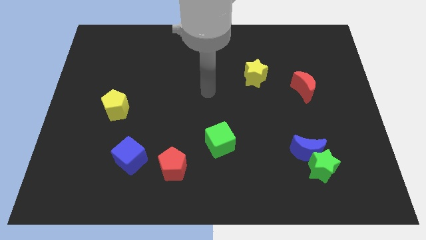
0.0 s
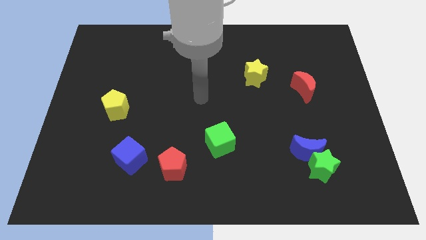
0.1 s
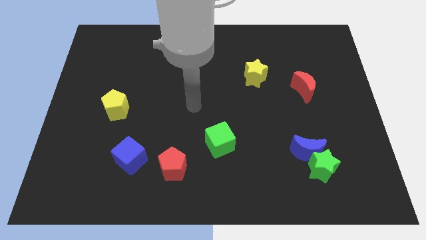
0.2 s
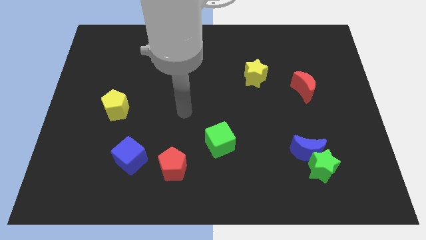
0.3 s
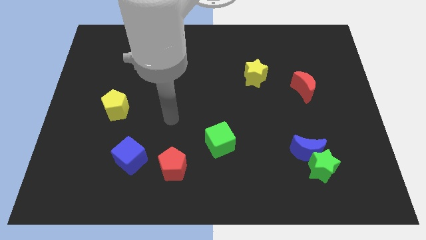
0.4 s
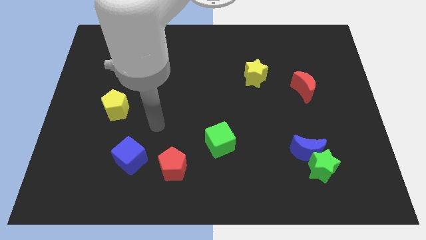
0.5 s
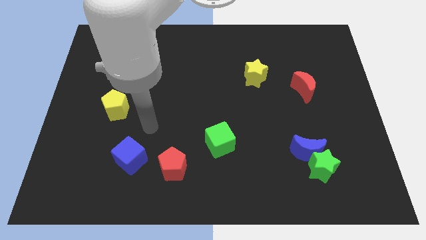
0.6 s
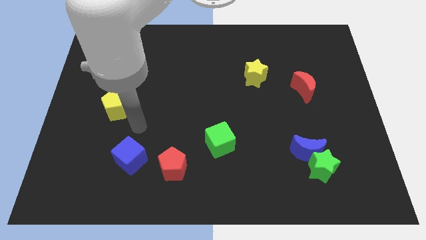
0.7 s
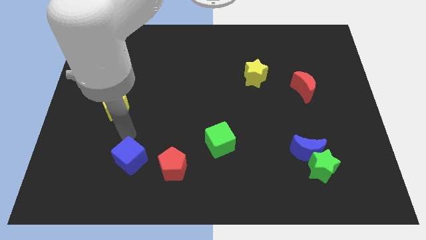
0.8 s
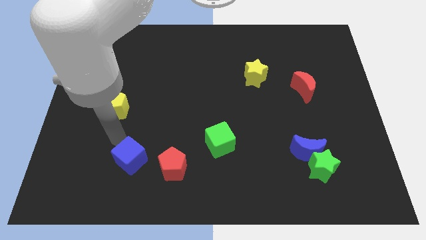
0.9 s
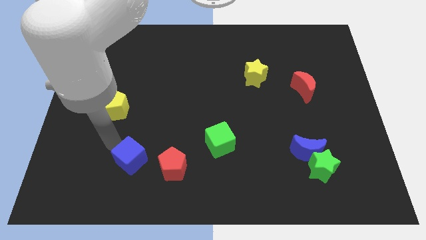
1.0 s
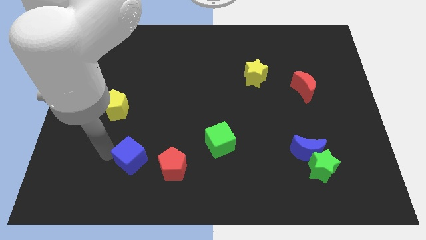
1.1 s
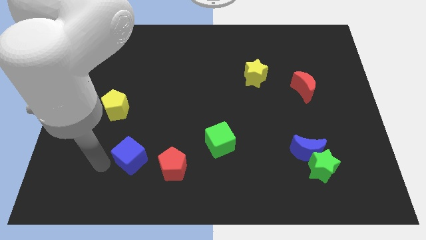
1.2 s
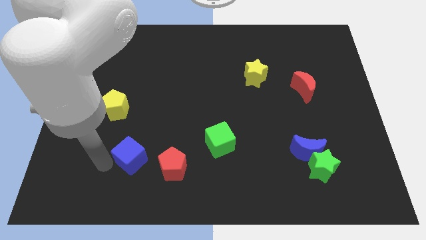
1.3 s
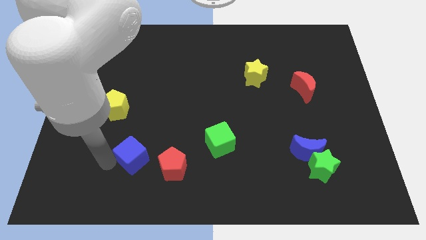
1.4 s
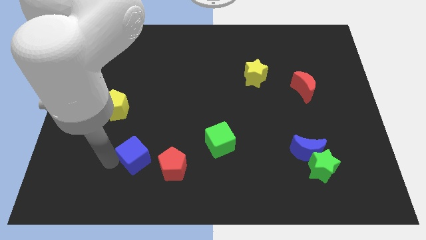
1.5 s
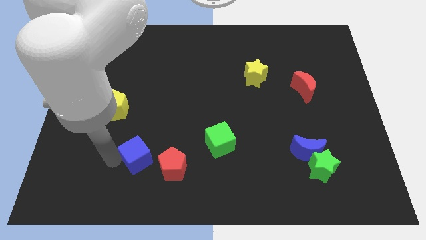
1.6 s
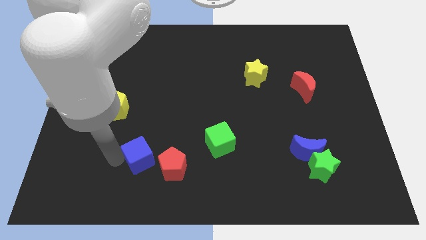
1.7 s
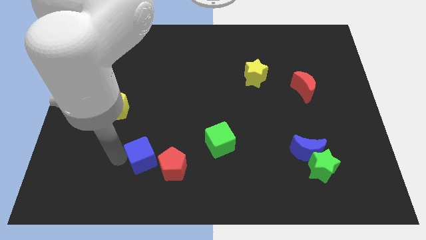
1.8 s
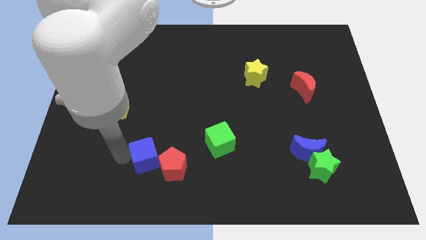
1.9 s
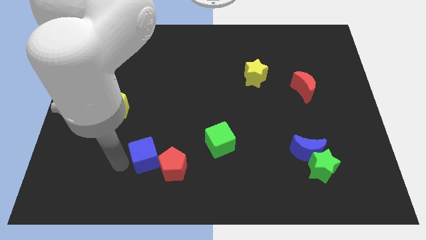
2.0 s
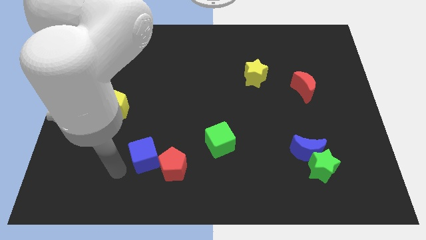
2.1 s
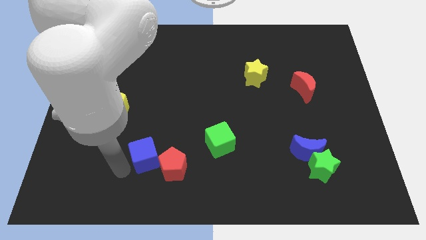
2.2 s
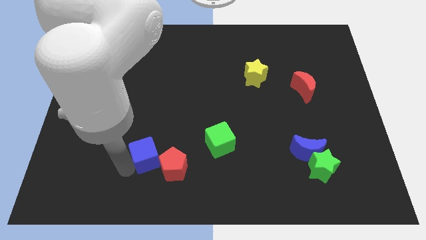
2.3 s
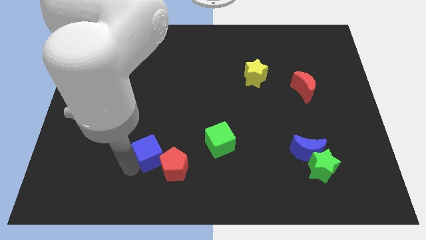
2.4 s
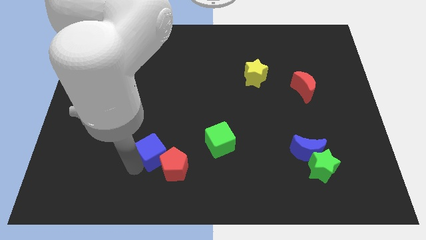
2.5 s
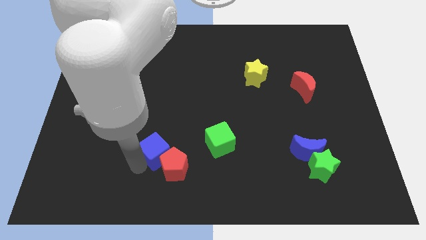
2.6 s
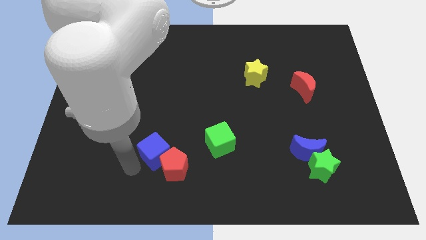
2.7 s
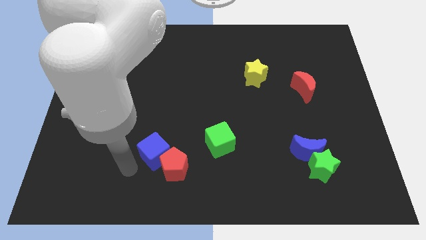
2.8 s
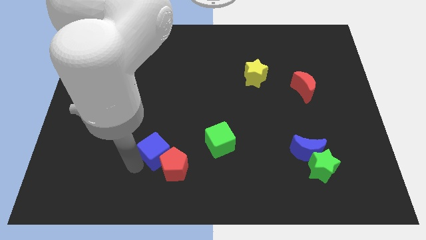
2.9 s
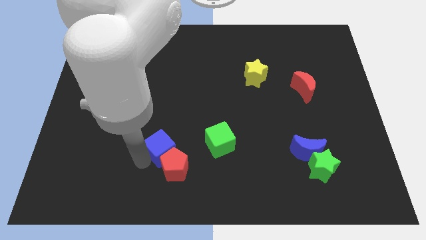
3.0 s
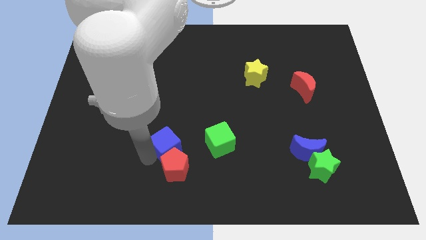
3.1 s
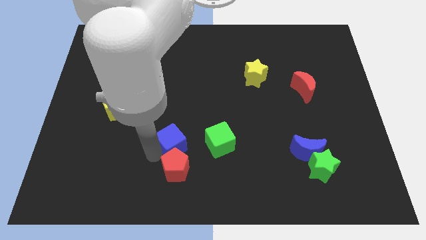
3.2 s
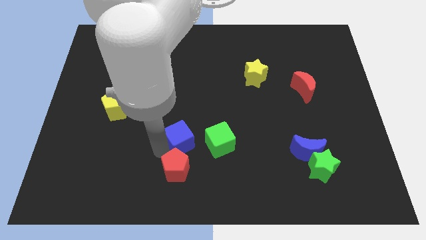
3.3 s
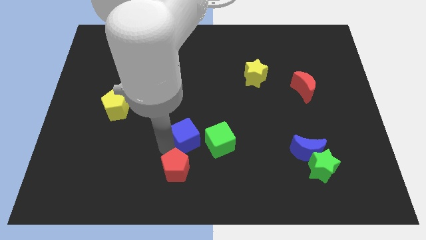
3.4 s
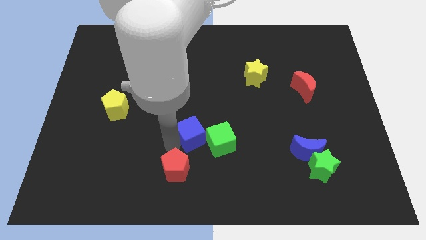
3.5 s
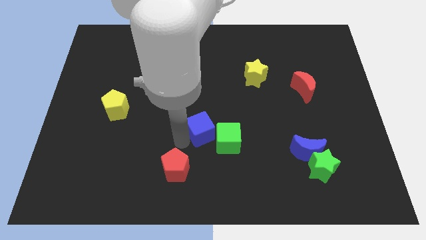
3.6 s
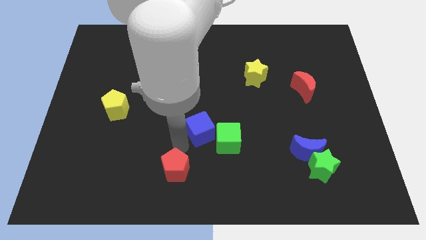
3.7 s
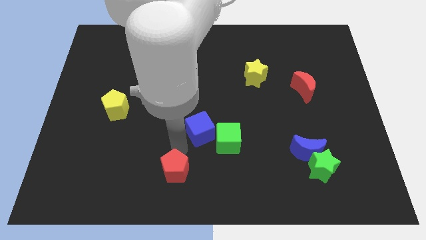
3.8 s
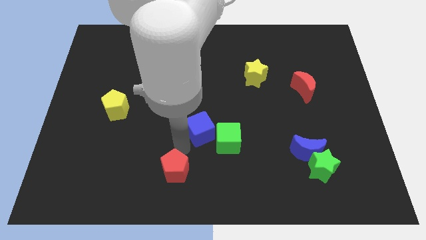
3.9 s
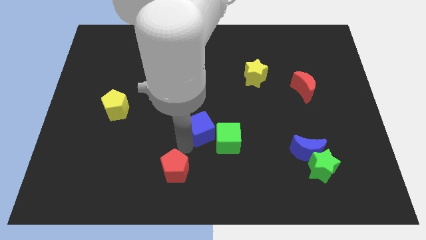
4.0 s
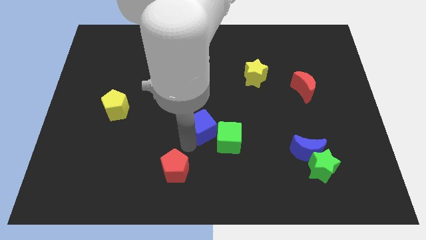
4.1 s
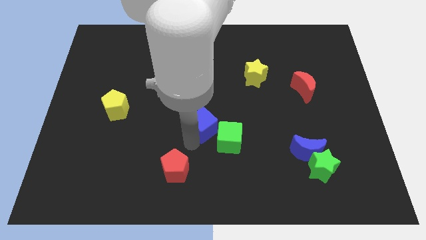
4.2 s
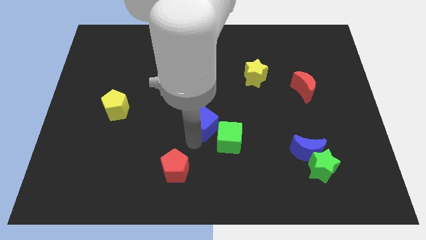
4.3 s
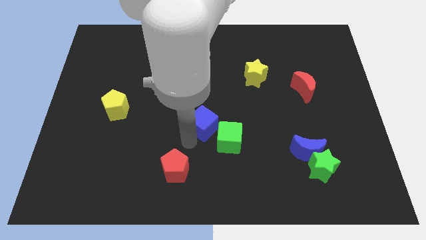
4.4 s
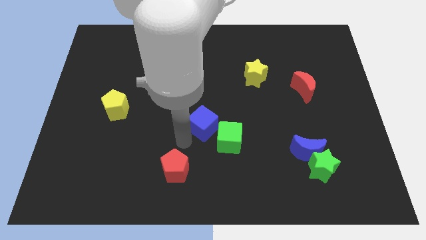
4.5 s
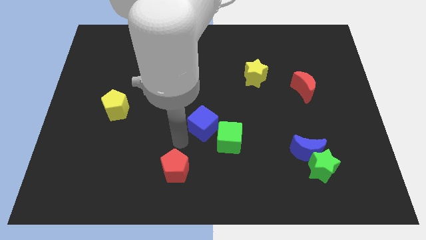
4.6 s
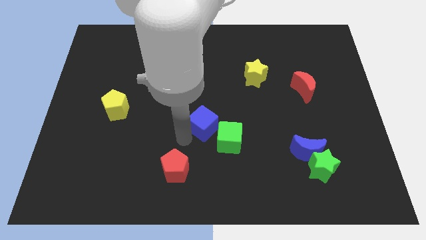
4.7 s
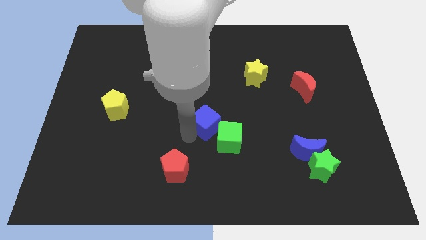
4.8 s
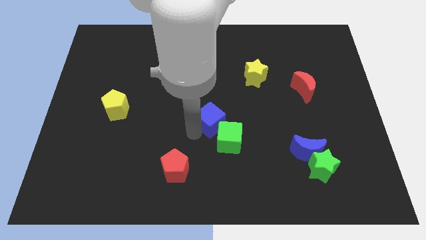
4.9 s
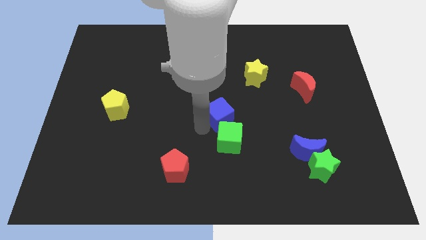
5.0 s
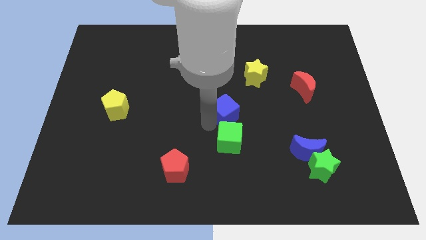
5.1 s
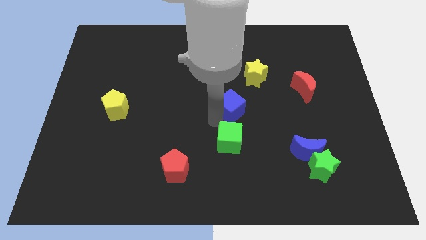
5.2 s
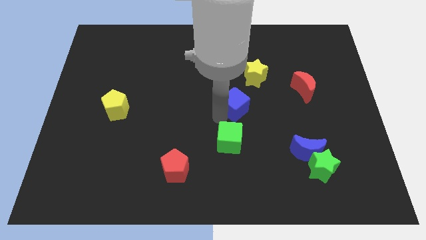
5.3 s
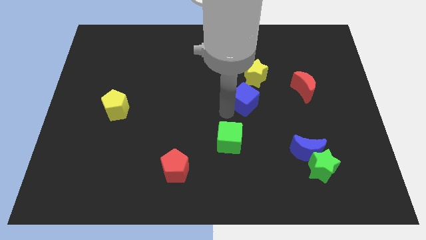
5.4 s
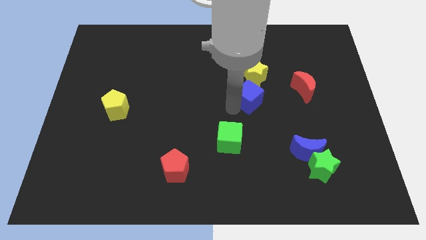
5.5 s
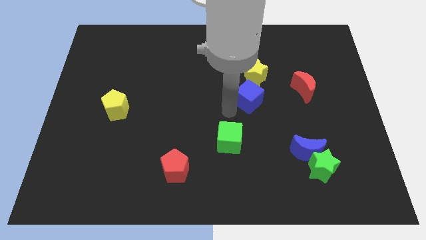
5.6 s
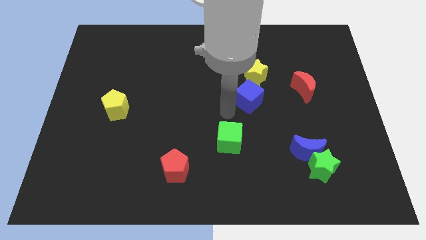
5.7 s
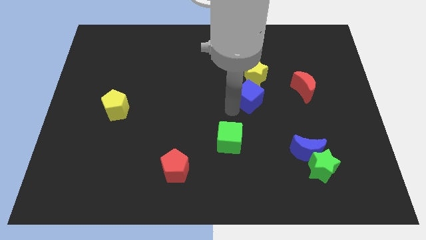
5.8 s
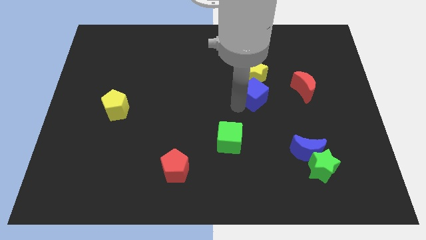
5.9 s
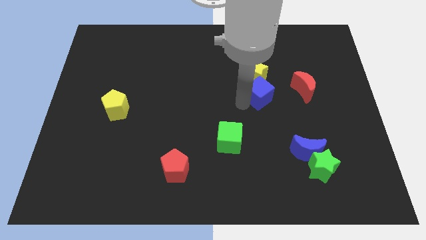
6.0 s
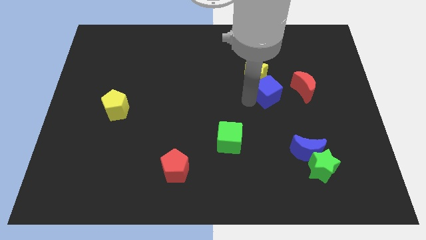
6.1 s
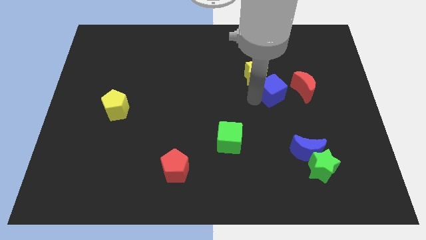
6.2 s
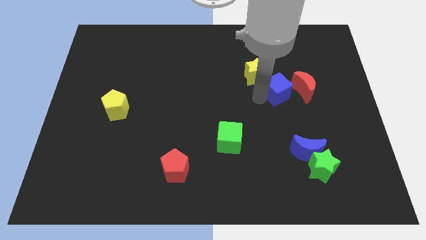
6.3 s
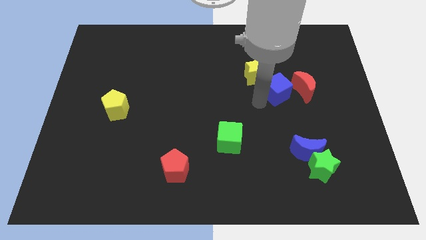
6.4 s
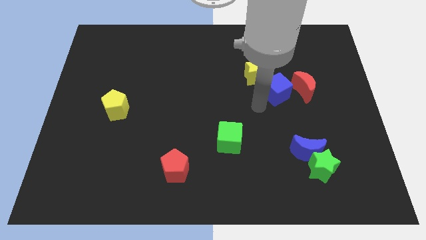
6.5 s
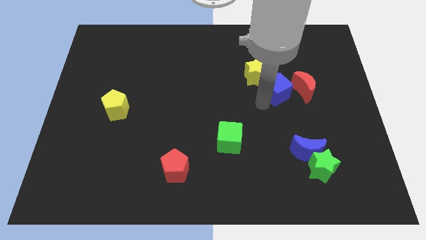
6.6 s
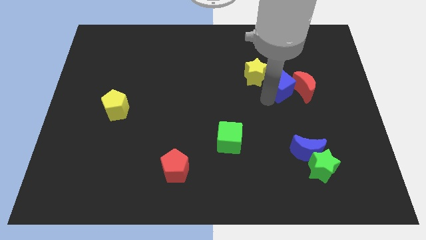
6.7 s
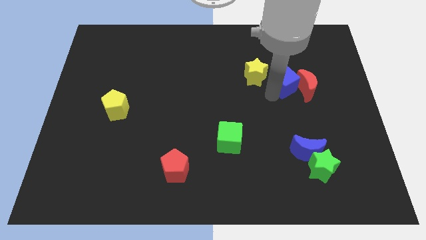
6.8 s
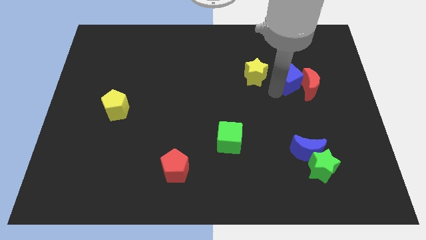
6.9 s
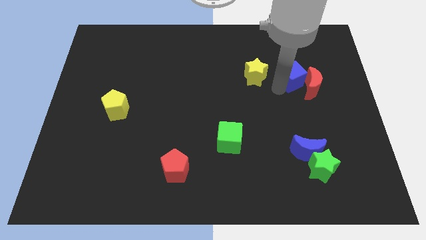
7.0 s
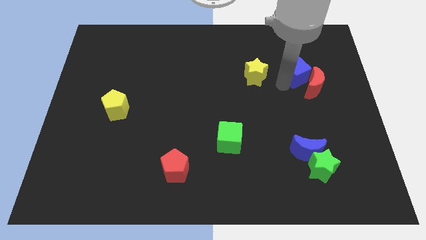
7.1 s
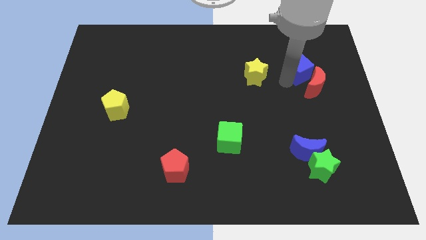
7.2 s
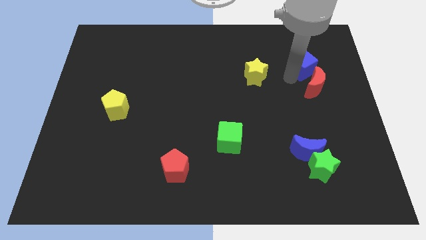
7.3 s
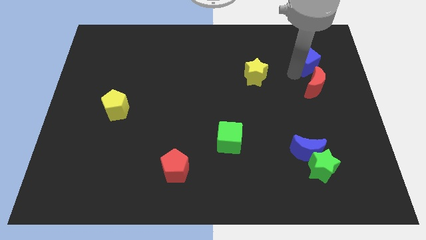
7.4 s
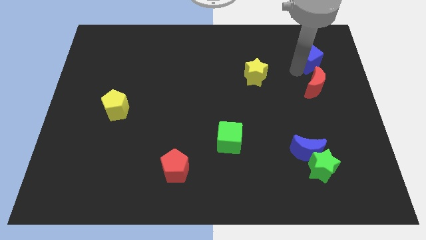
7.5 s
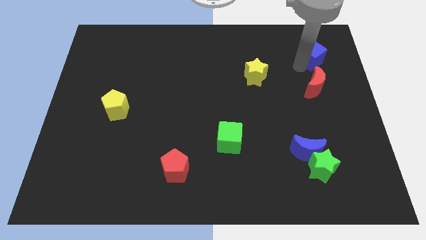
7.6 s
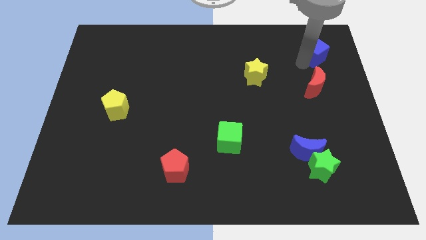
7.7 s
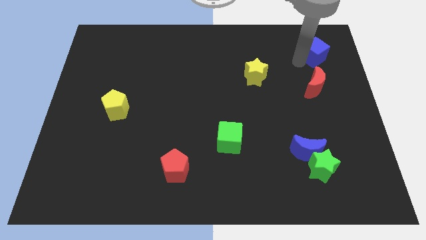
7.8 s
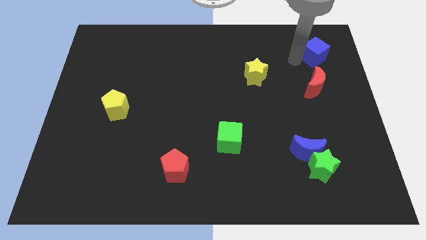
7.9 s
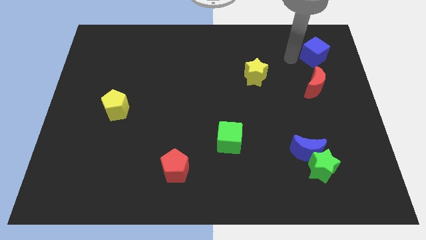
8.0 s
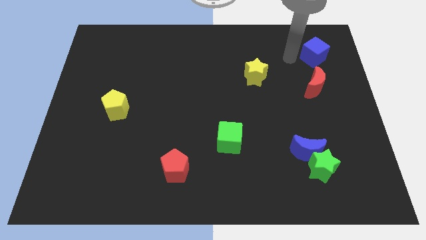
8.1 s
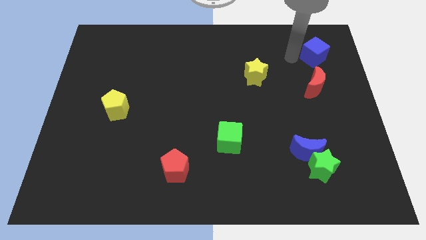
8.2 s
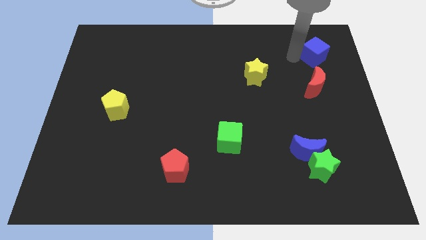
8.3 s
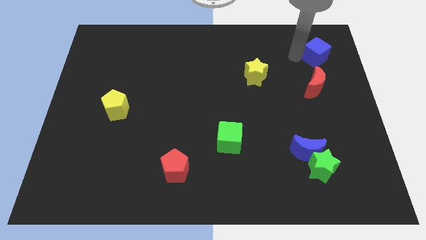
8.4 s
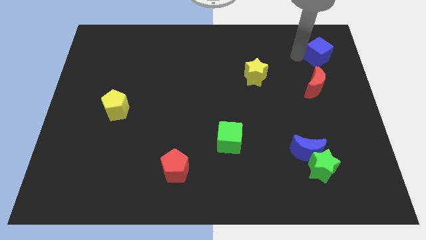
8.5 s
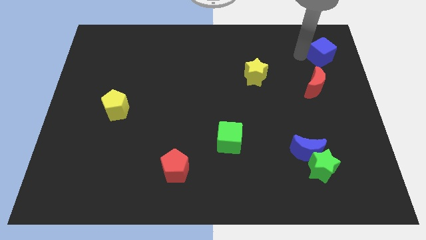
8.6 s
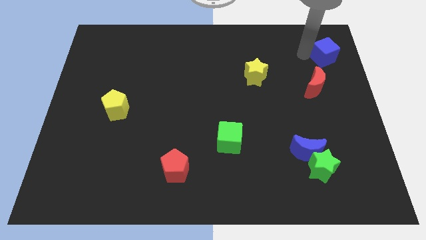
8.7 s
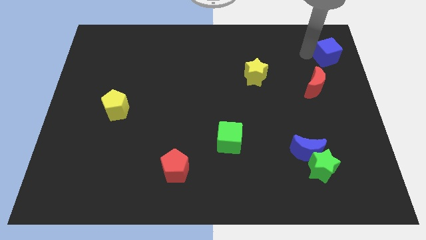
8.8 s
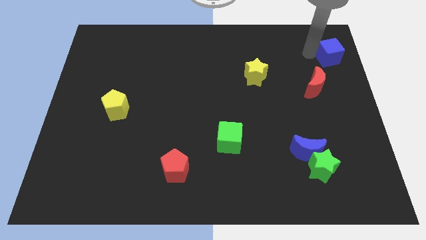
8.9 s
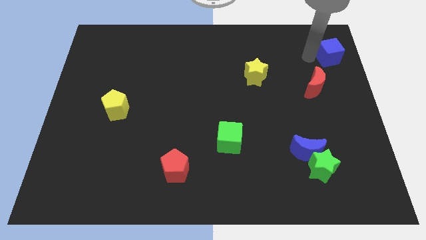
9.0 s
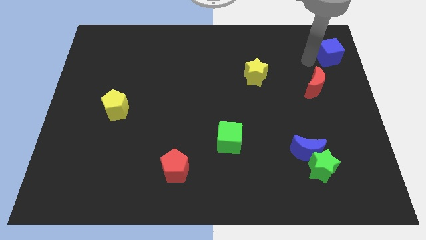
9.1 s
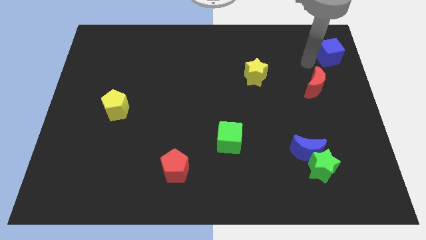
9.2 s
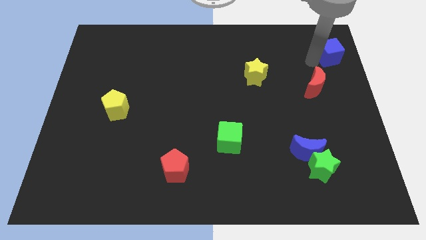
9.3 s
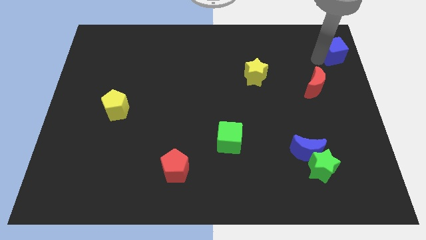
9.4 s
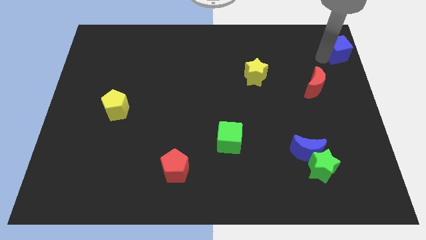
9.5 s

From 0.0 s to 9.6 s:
move the blue cube to the upper right corner
